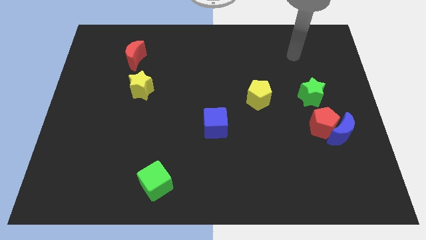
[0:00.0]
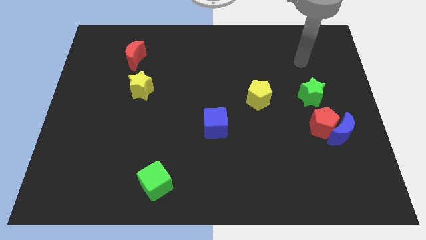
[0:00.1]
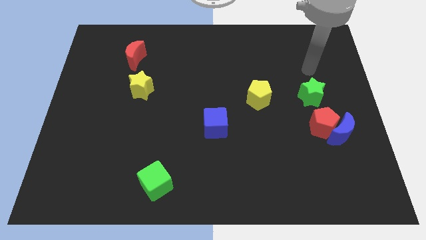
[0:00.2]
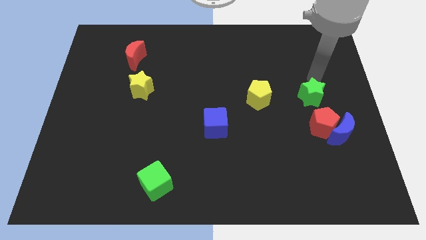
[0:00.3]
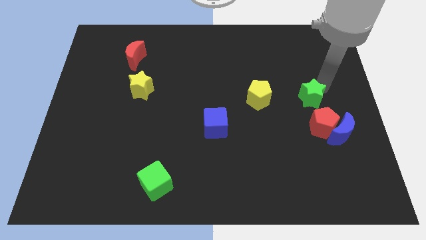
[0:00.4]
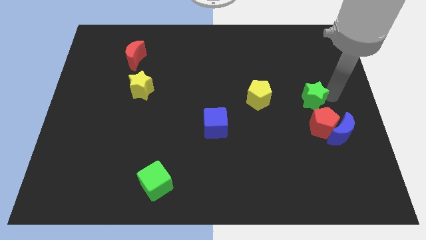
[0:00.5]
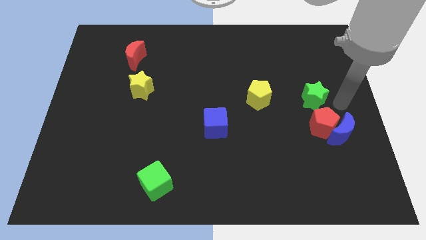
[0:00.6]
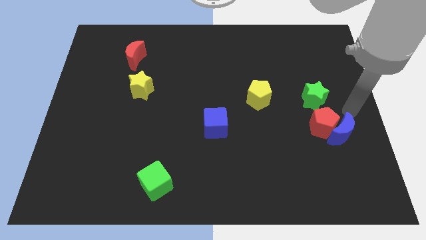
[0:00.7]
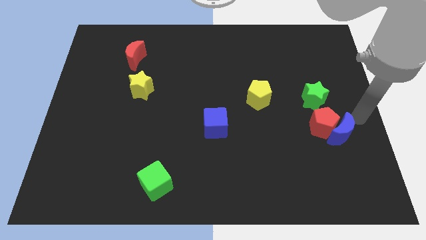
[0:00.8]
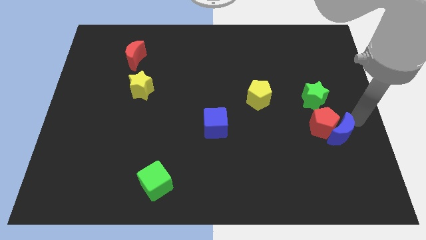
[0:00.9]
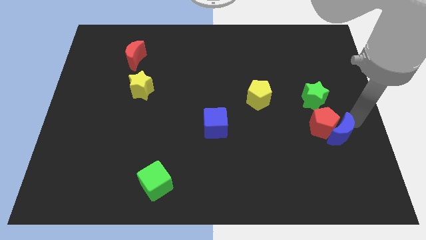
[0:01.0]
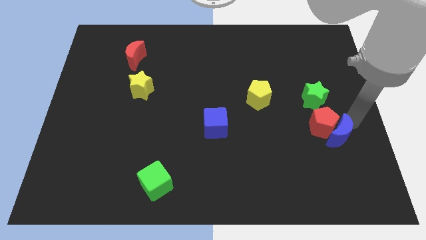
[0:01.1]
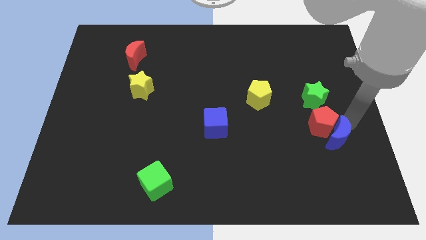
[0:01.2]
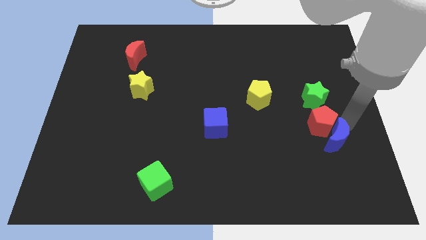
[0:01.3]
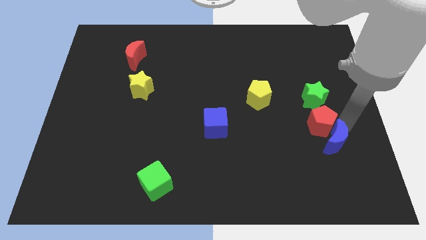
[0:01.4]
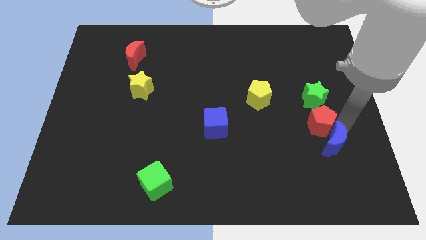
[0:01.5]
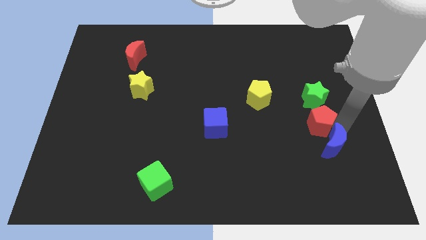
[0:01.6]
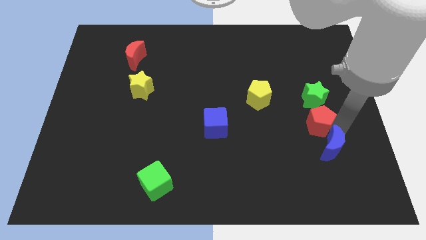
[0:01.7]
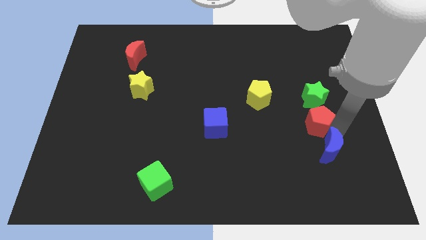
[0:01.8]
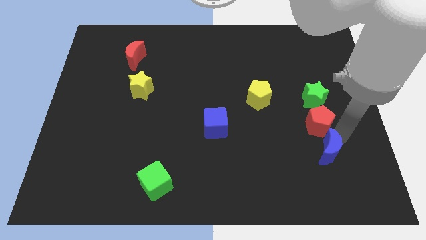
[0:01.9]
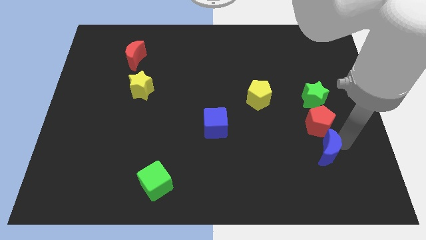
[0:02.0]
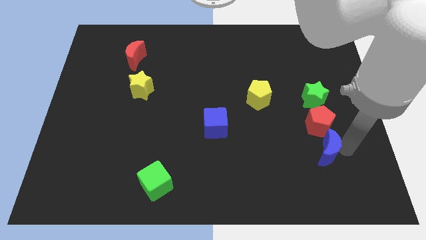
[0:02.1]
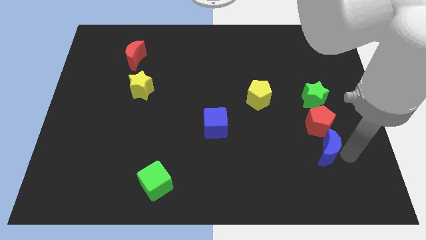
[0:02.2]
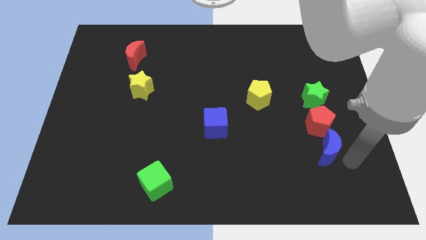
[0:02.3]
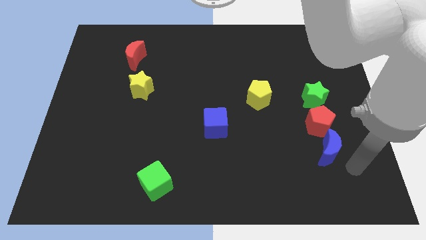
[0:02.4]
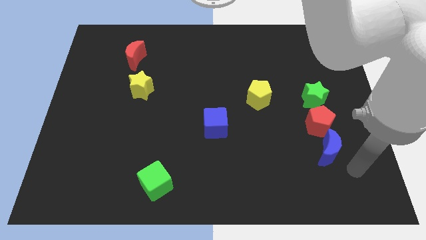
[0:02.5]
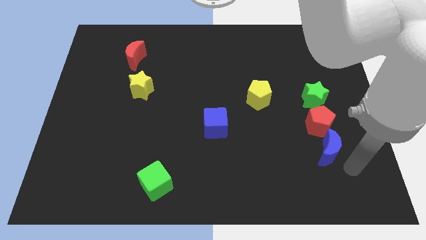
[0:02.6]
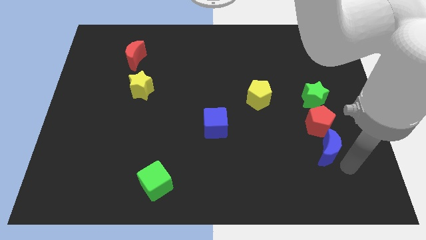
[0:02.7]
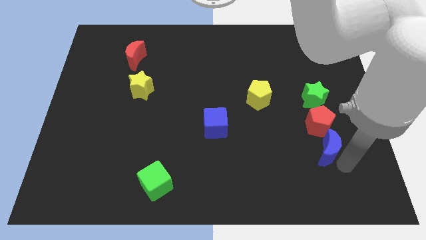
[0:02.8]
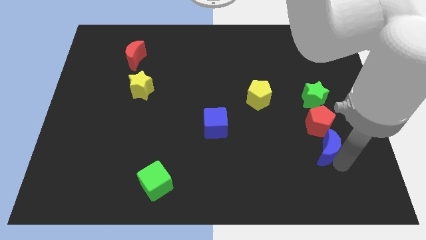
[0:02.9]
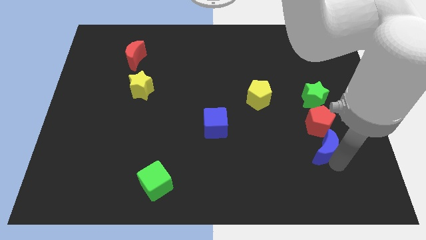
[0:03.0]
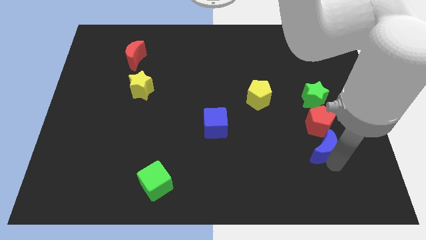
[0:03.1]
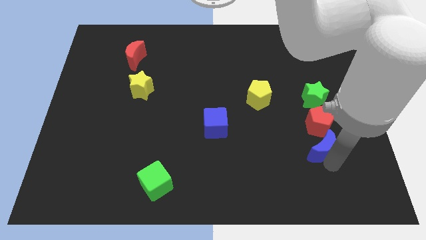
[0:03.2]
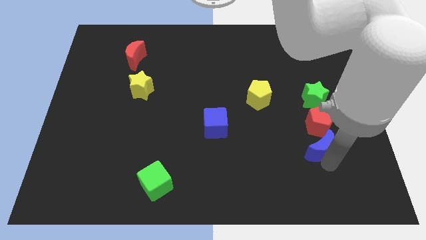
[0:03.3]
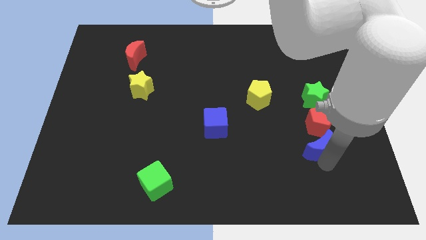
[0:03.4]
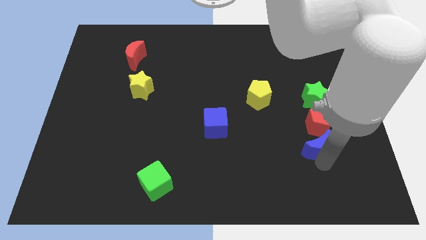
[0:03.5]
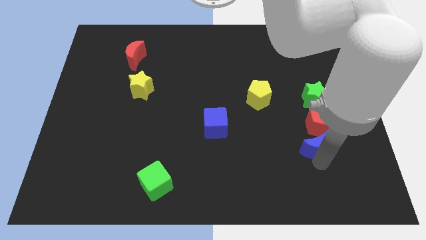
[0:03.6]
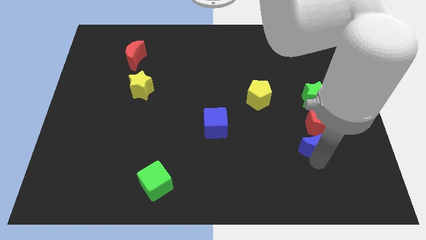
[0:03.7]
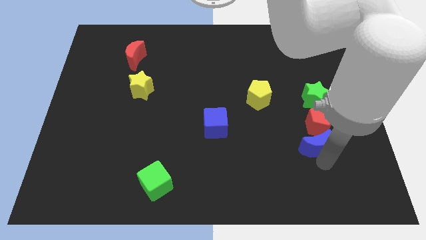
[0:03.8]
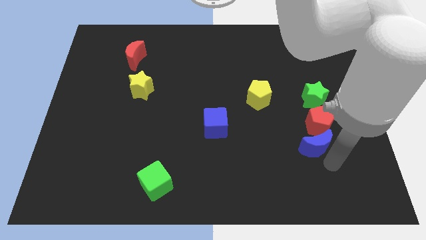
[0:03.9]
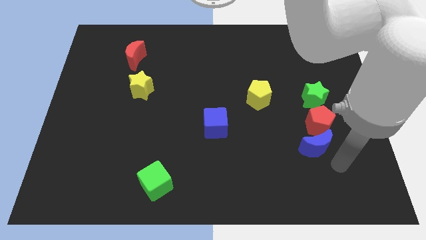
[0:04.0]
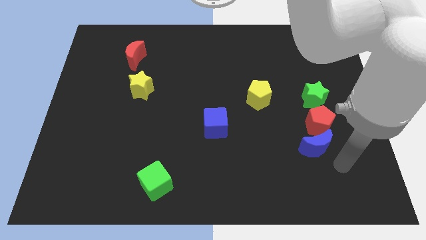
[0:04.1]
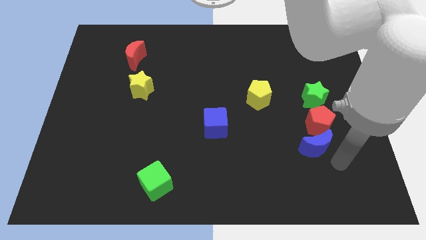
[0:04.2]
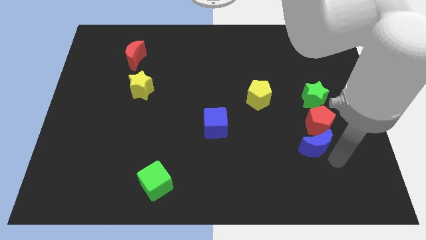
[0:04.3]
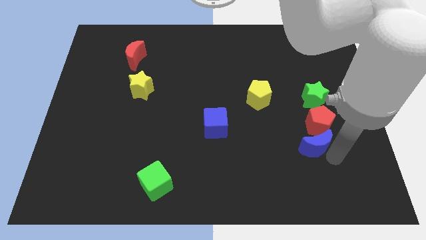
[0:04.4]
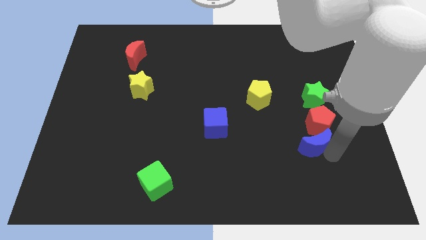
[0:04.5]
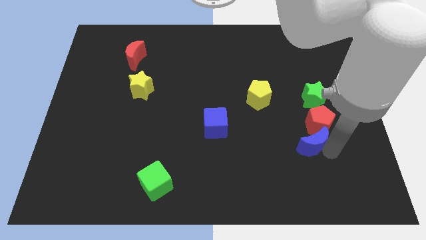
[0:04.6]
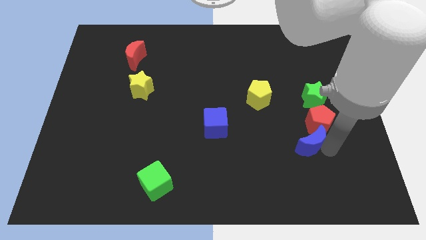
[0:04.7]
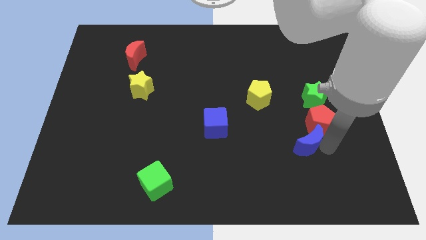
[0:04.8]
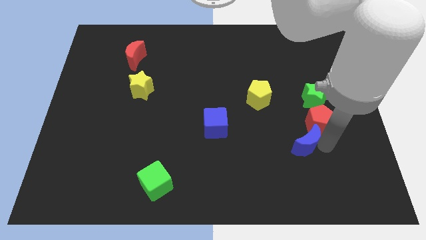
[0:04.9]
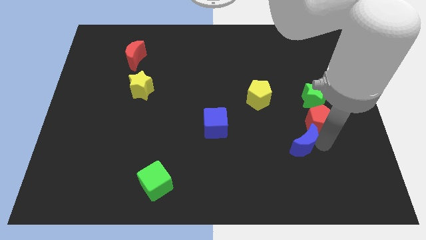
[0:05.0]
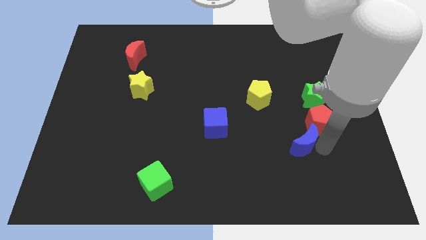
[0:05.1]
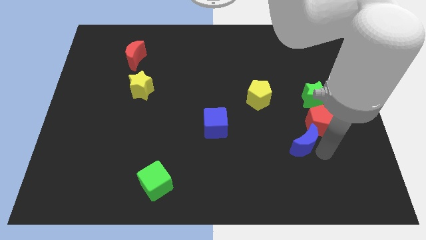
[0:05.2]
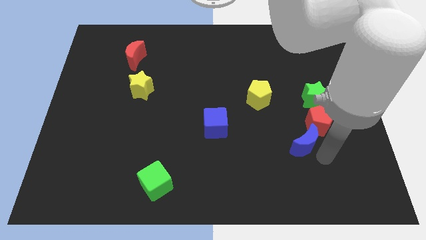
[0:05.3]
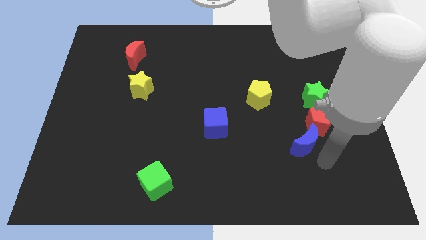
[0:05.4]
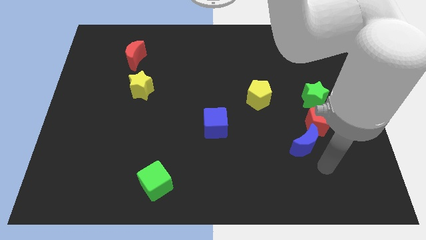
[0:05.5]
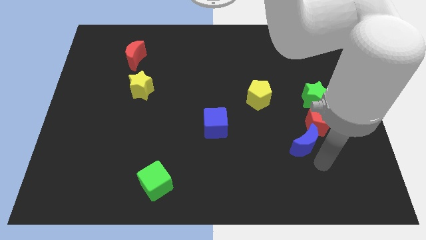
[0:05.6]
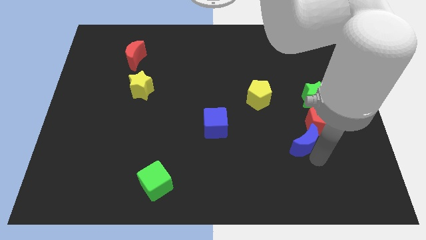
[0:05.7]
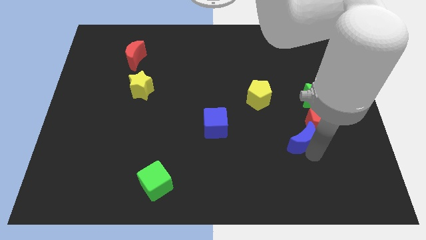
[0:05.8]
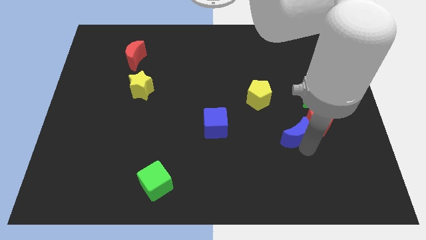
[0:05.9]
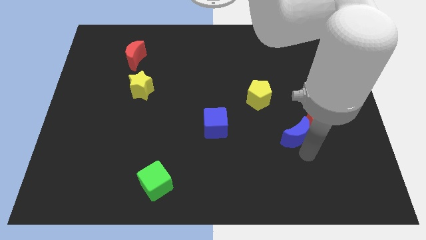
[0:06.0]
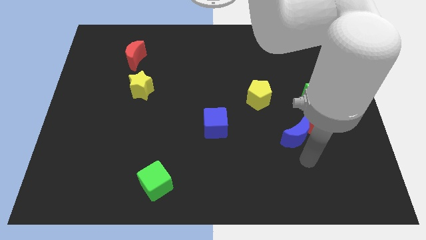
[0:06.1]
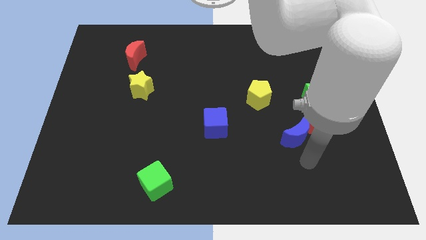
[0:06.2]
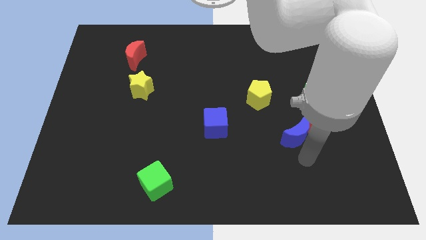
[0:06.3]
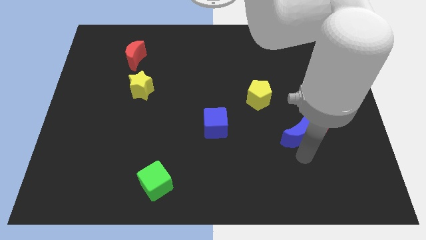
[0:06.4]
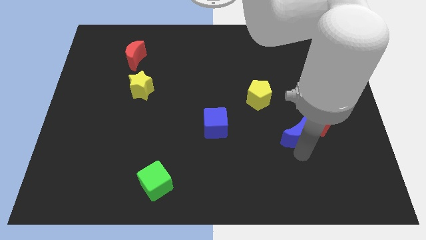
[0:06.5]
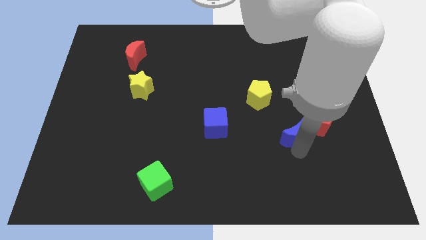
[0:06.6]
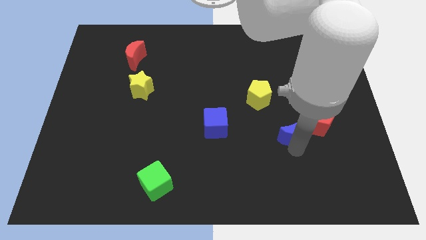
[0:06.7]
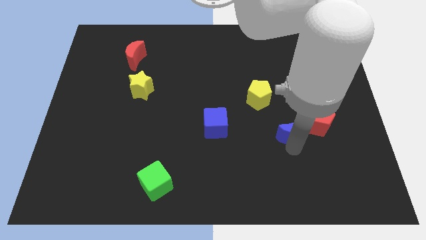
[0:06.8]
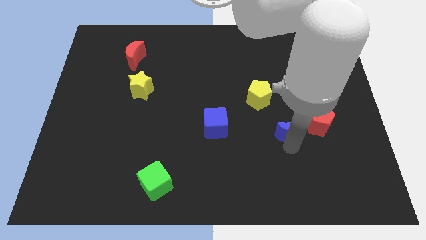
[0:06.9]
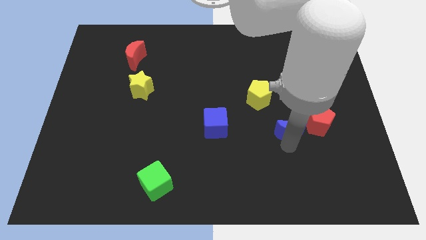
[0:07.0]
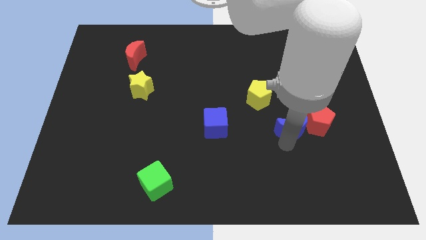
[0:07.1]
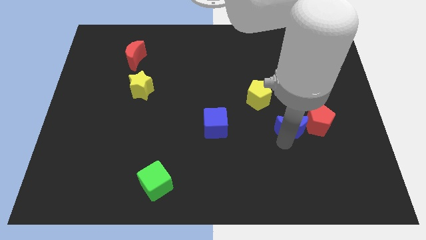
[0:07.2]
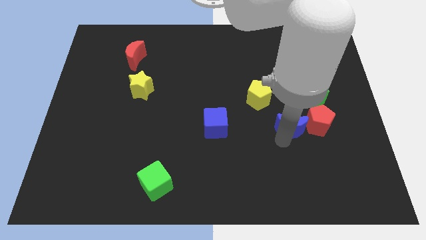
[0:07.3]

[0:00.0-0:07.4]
move the blue moon up and then to the left a bit

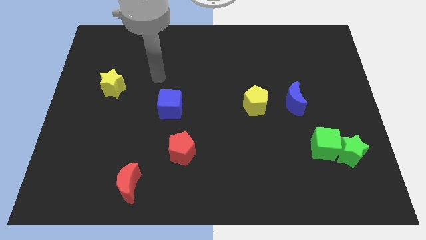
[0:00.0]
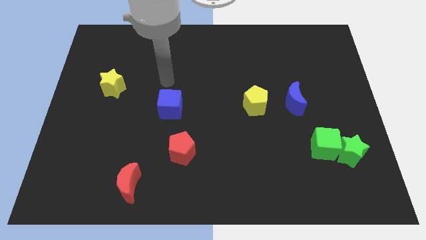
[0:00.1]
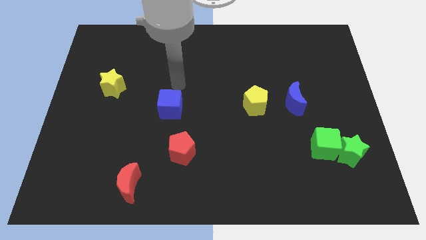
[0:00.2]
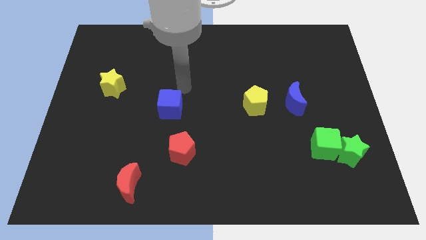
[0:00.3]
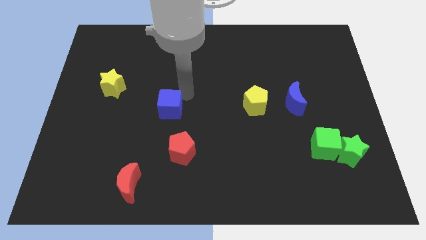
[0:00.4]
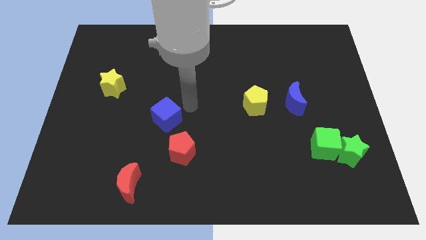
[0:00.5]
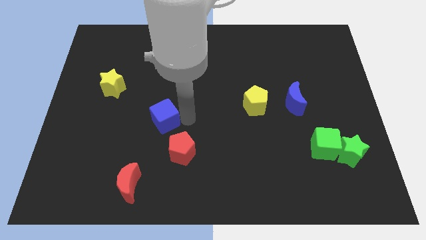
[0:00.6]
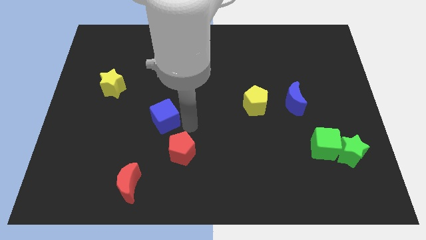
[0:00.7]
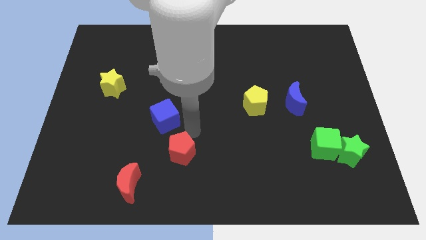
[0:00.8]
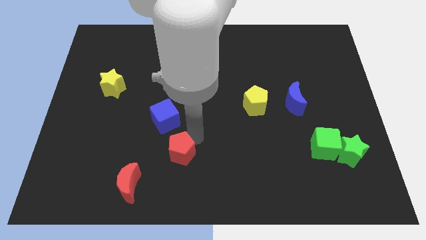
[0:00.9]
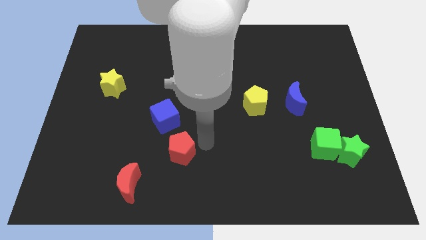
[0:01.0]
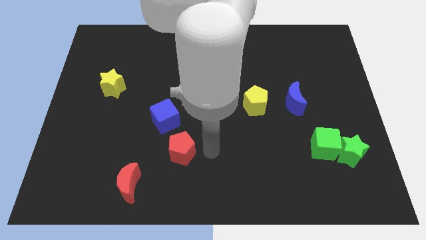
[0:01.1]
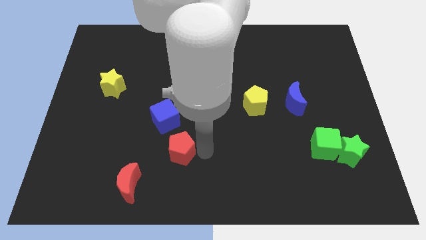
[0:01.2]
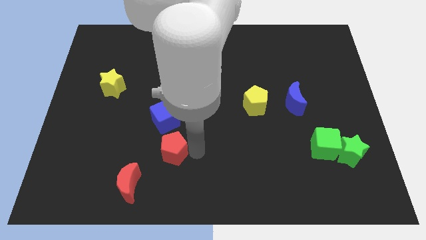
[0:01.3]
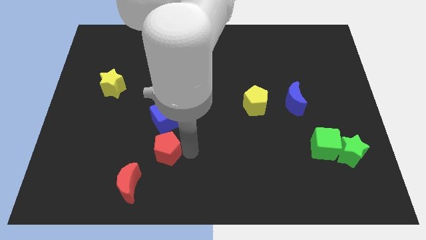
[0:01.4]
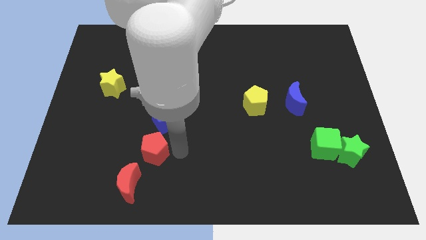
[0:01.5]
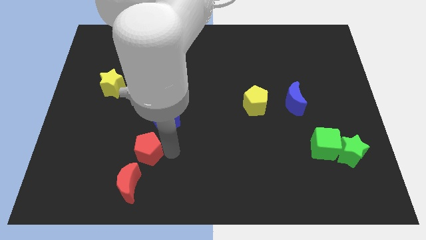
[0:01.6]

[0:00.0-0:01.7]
push the red pentagon a little bit left
